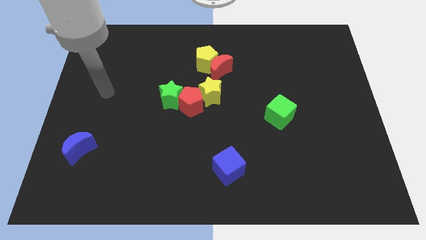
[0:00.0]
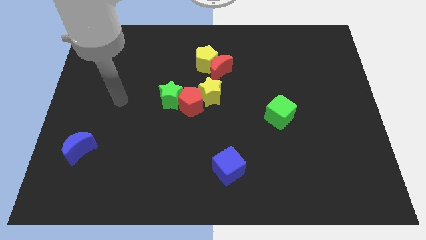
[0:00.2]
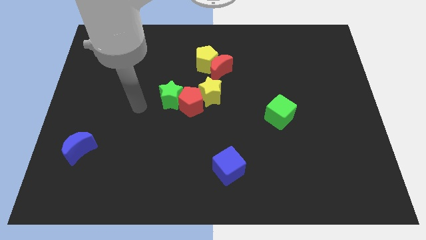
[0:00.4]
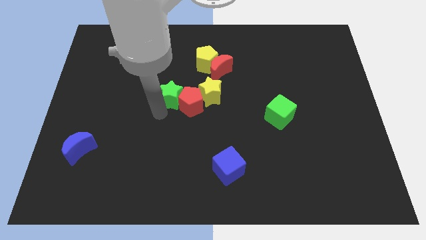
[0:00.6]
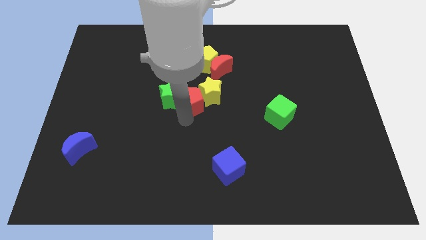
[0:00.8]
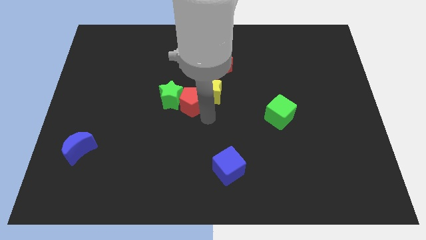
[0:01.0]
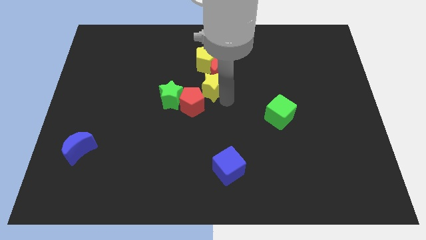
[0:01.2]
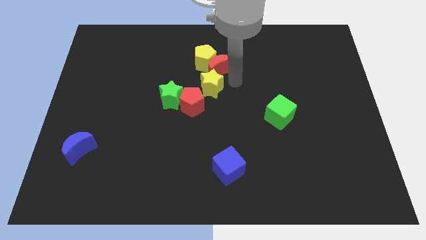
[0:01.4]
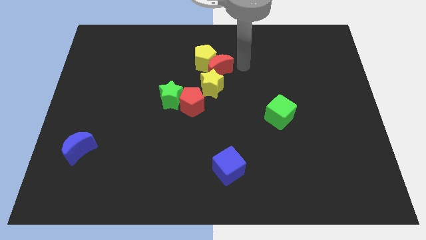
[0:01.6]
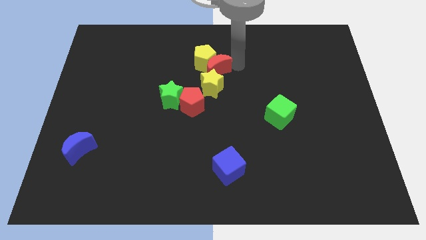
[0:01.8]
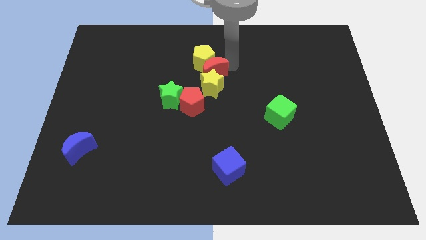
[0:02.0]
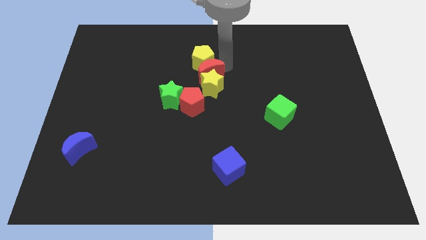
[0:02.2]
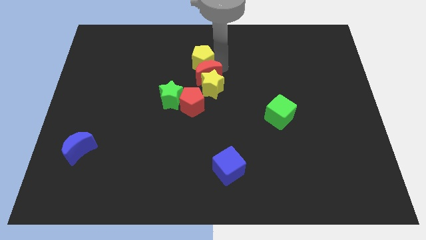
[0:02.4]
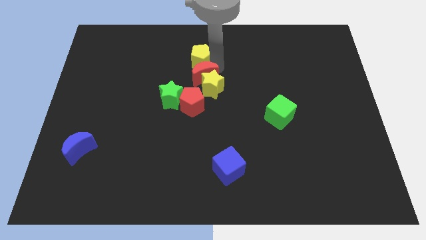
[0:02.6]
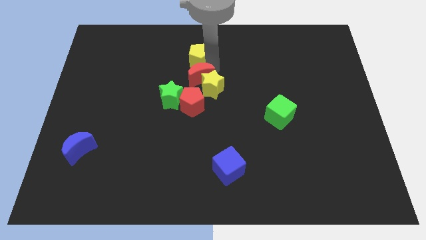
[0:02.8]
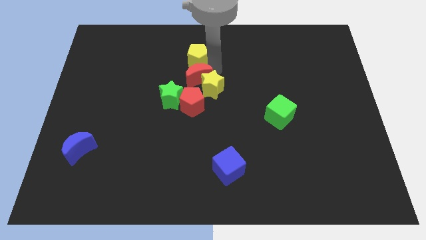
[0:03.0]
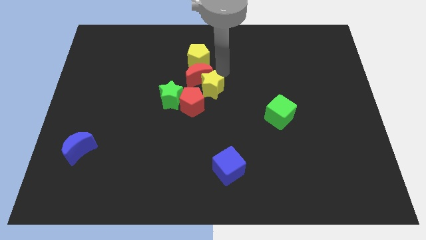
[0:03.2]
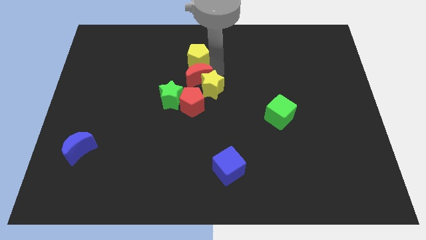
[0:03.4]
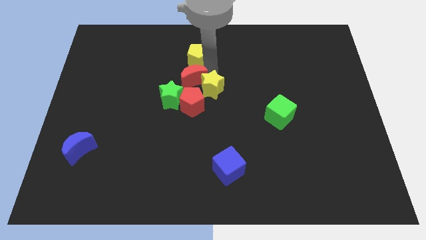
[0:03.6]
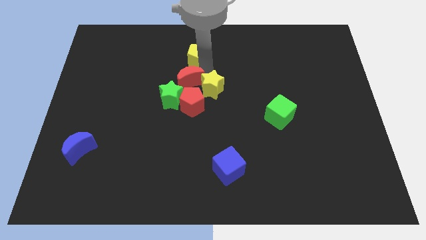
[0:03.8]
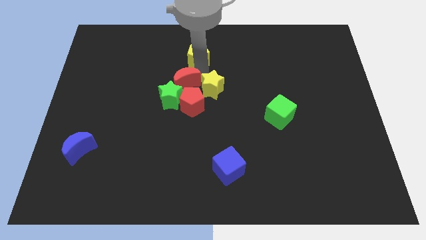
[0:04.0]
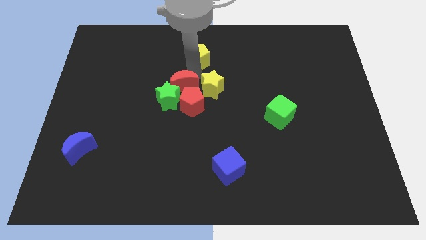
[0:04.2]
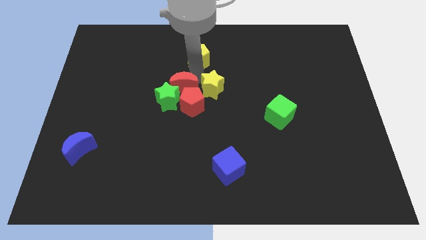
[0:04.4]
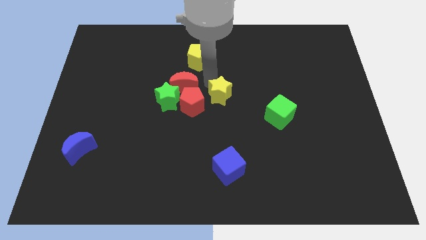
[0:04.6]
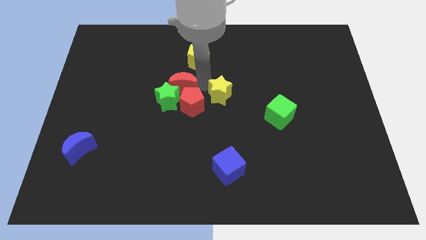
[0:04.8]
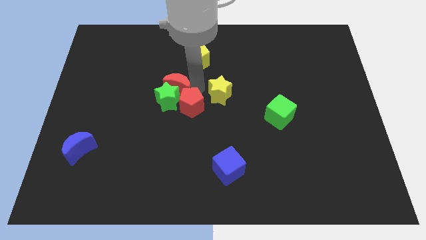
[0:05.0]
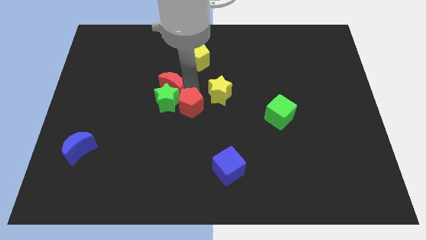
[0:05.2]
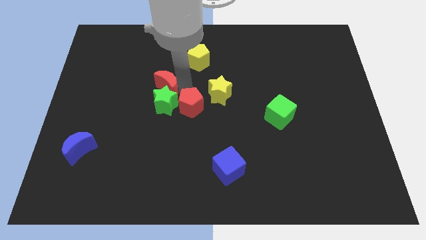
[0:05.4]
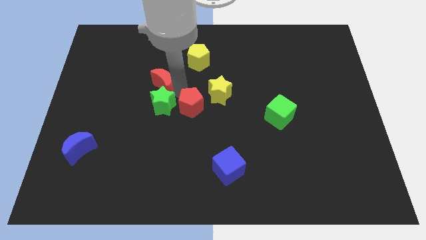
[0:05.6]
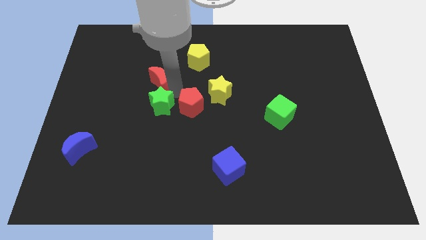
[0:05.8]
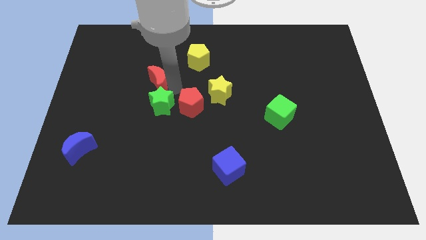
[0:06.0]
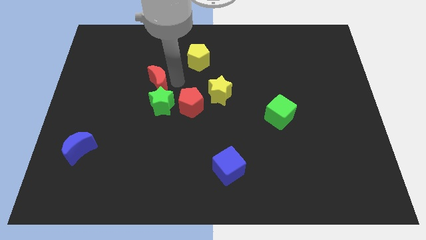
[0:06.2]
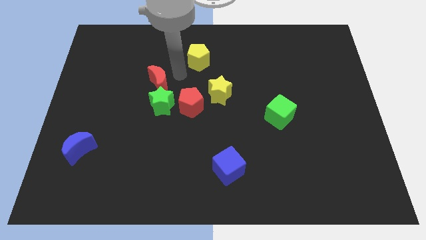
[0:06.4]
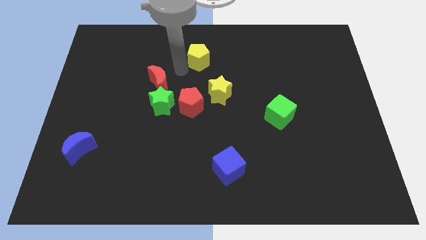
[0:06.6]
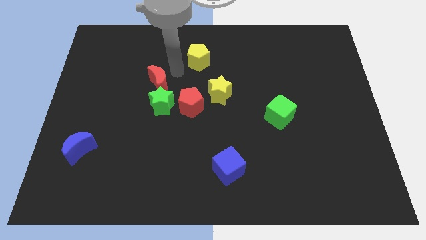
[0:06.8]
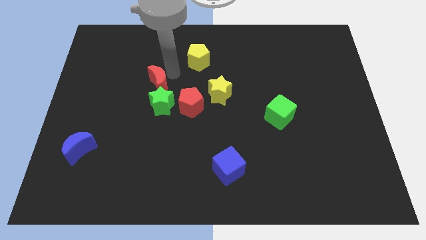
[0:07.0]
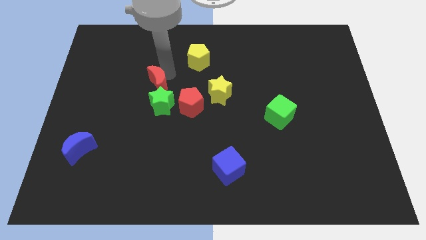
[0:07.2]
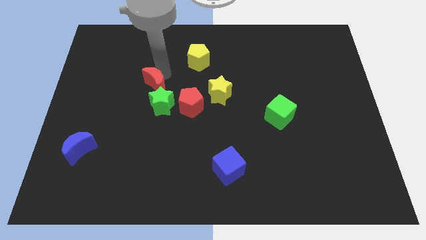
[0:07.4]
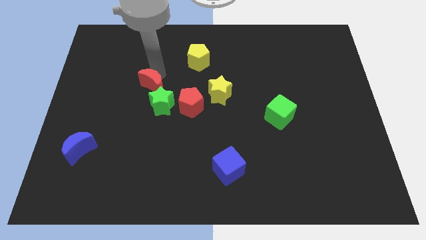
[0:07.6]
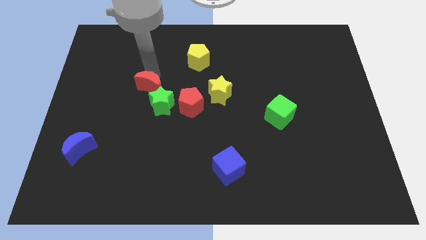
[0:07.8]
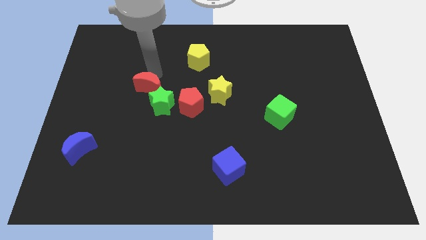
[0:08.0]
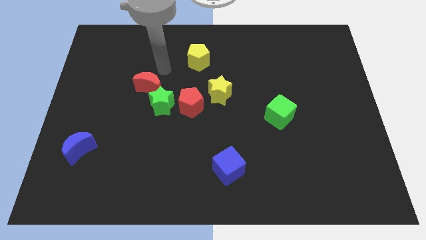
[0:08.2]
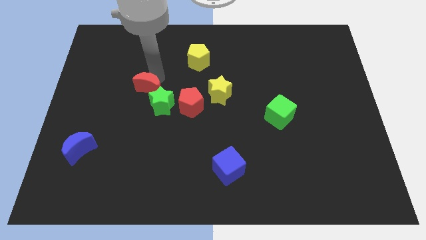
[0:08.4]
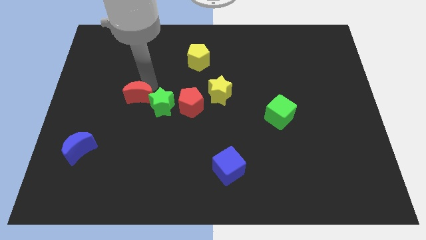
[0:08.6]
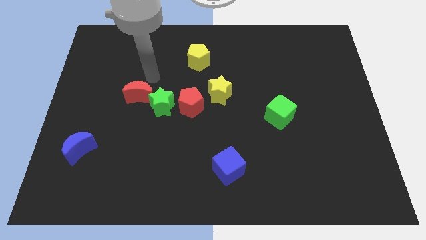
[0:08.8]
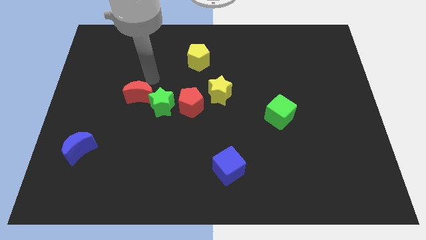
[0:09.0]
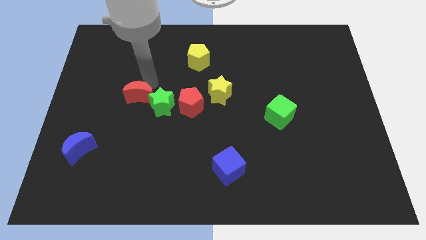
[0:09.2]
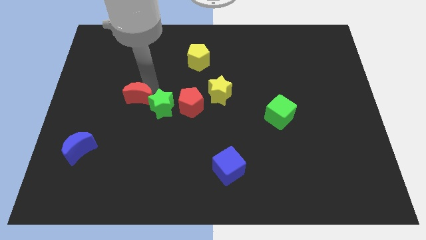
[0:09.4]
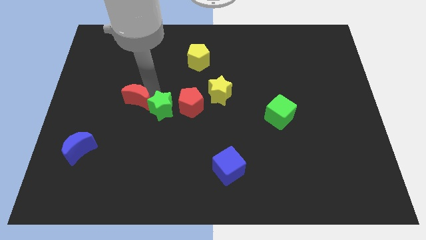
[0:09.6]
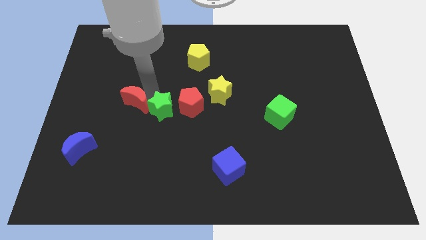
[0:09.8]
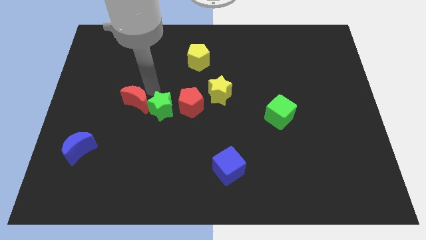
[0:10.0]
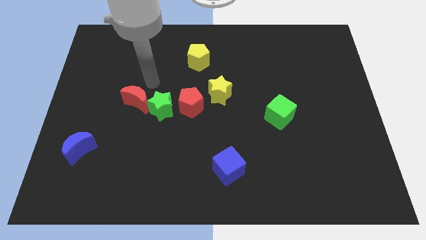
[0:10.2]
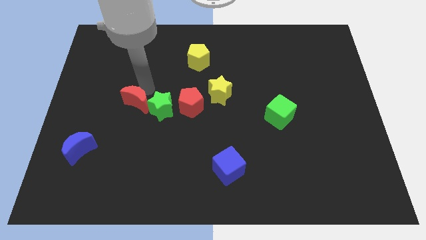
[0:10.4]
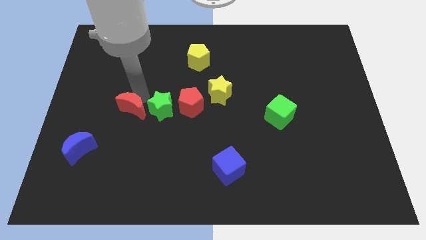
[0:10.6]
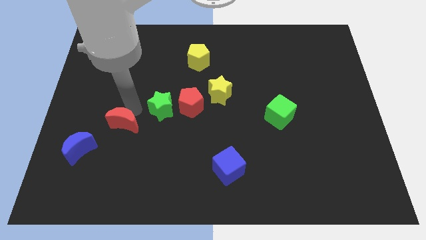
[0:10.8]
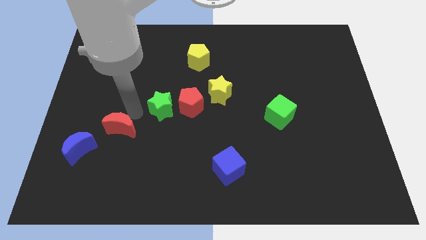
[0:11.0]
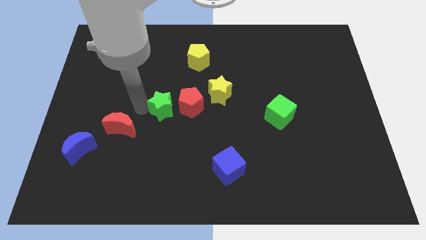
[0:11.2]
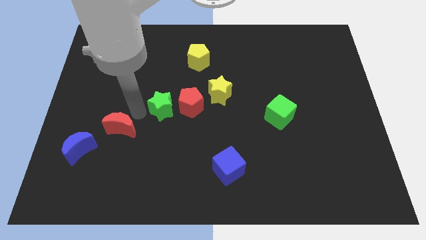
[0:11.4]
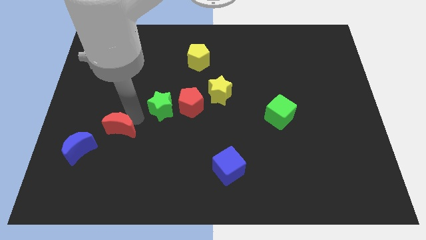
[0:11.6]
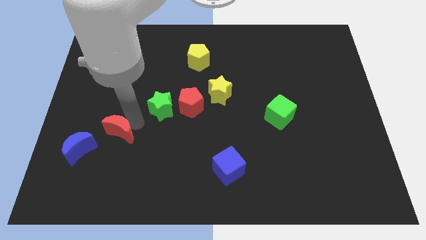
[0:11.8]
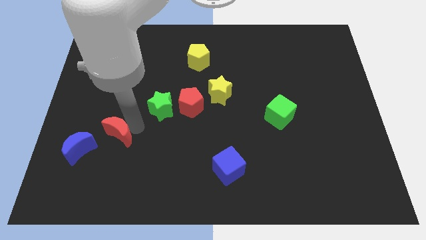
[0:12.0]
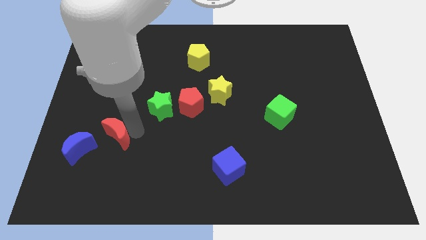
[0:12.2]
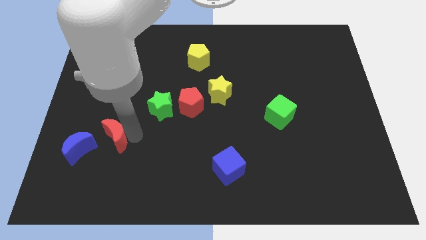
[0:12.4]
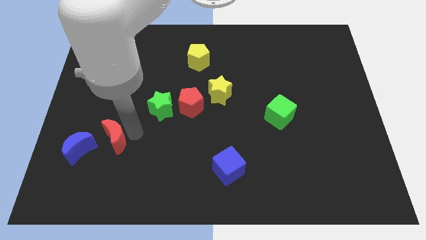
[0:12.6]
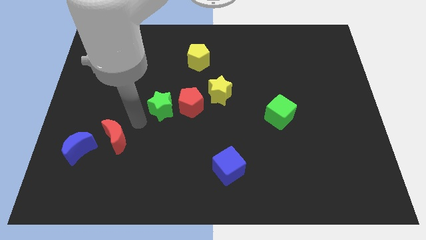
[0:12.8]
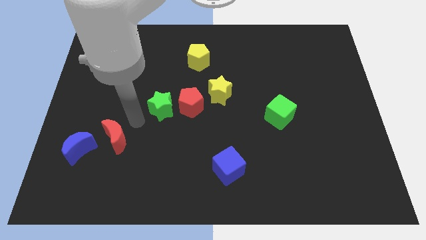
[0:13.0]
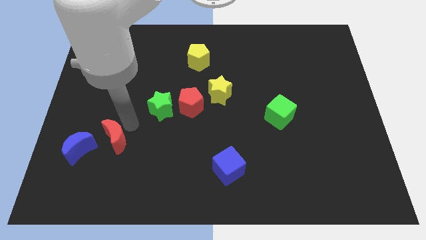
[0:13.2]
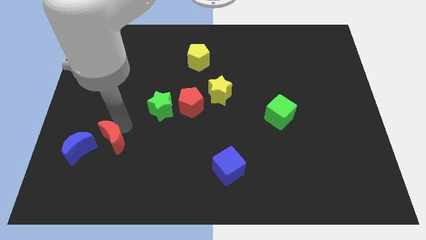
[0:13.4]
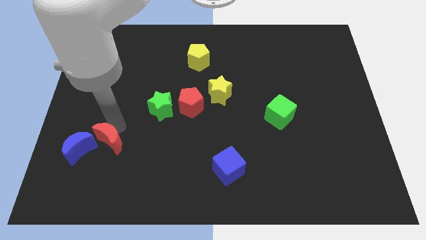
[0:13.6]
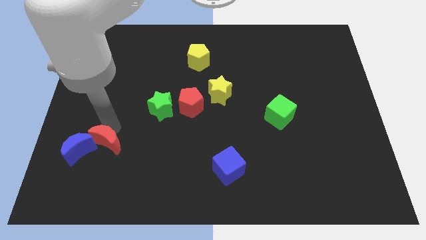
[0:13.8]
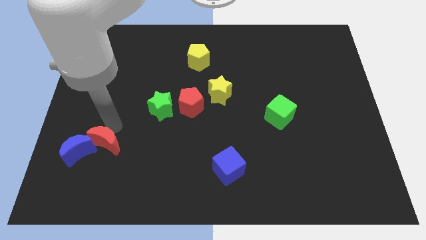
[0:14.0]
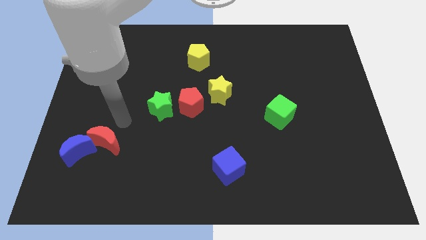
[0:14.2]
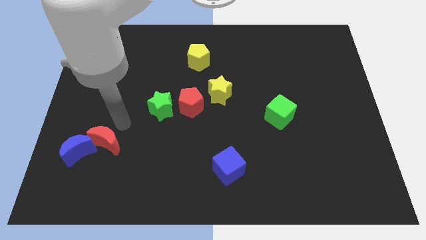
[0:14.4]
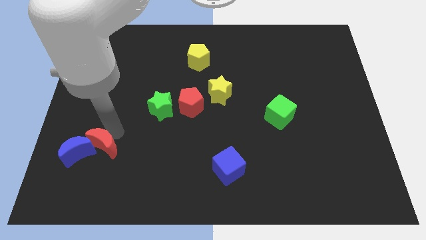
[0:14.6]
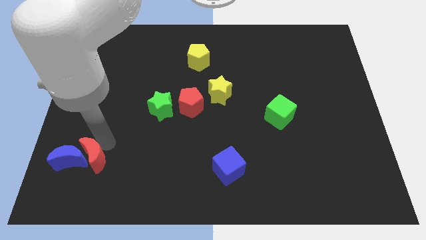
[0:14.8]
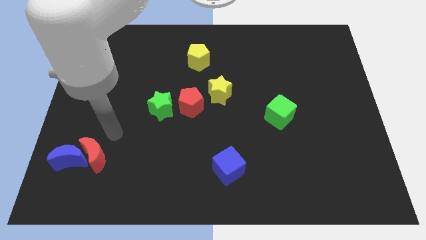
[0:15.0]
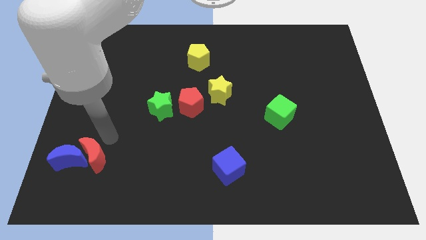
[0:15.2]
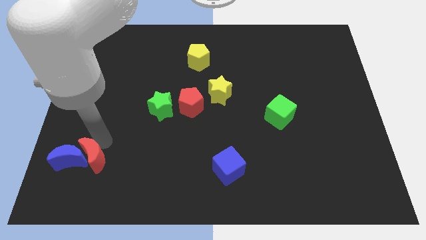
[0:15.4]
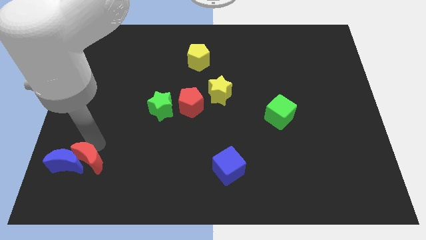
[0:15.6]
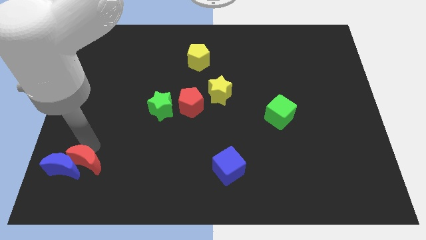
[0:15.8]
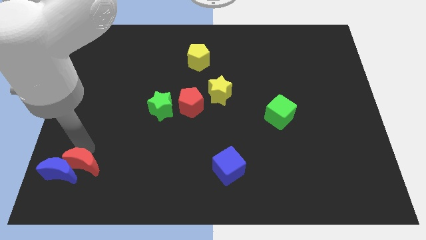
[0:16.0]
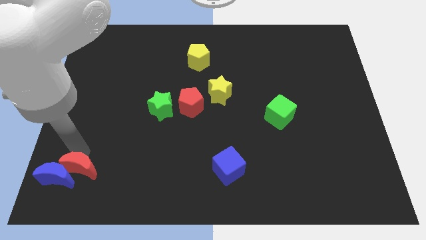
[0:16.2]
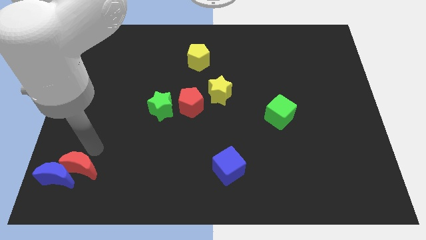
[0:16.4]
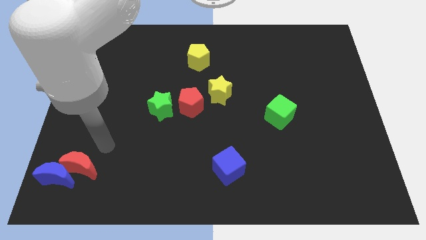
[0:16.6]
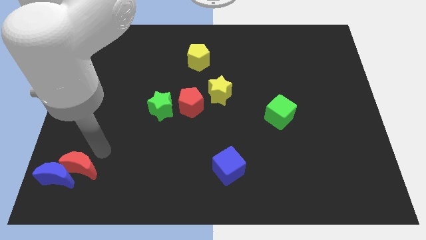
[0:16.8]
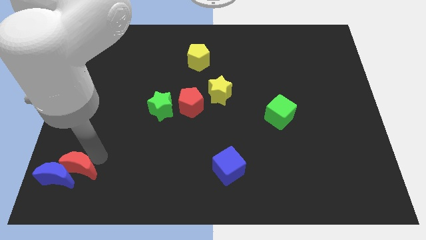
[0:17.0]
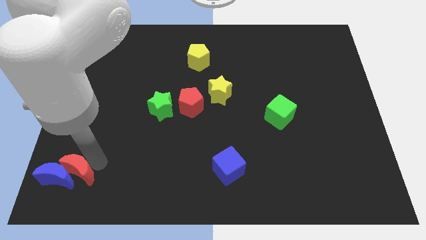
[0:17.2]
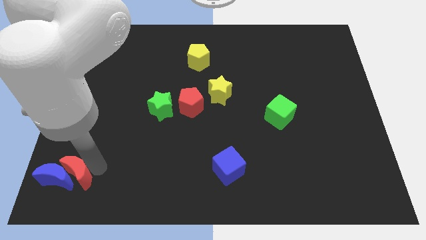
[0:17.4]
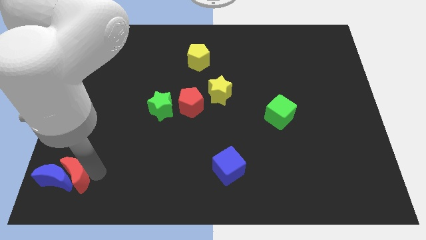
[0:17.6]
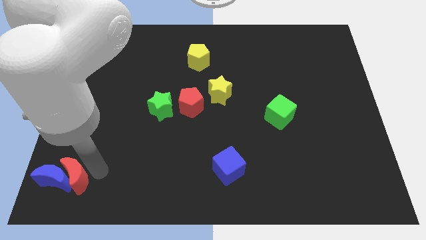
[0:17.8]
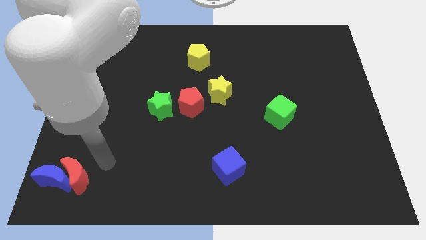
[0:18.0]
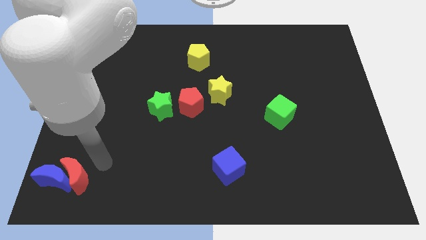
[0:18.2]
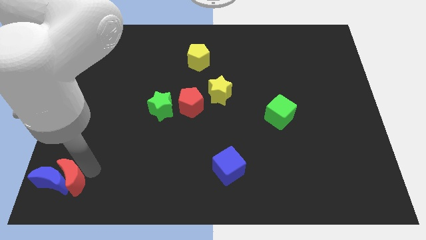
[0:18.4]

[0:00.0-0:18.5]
move the red moon to the bottom left of the board
